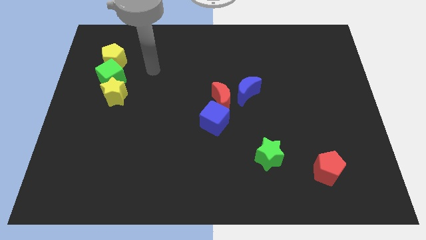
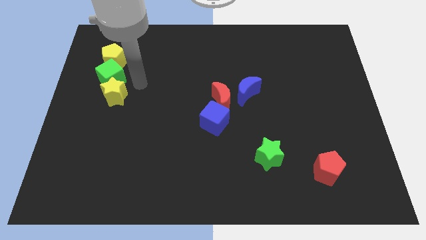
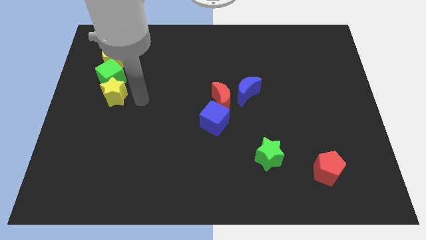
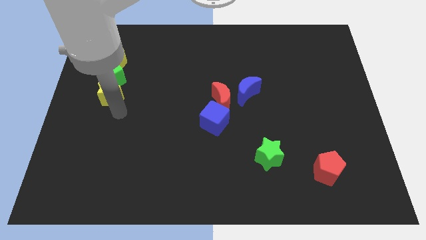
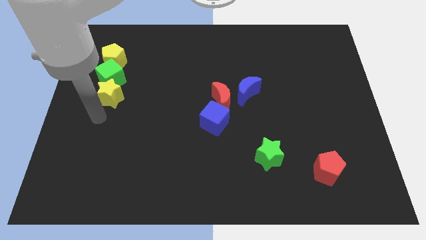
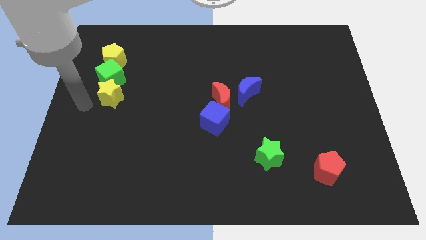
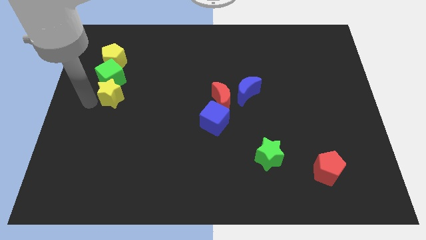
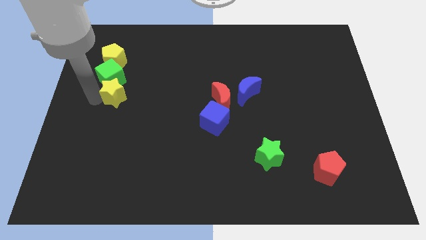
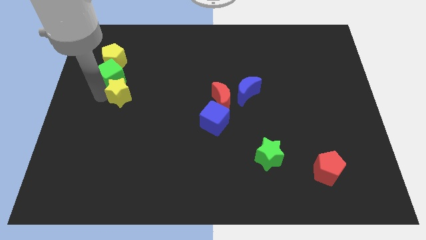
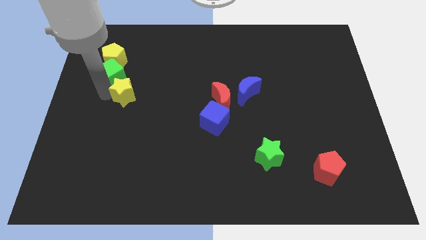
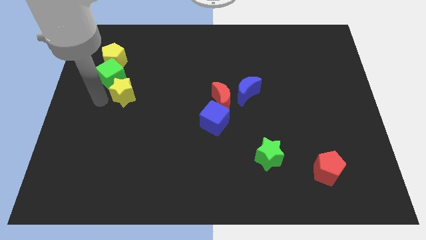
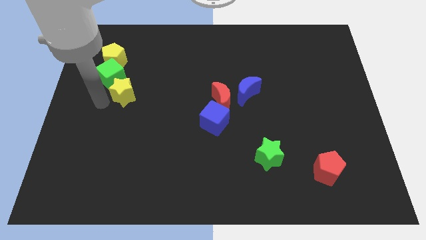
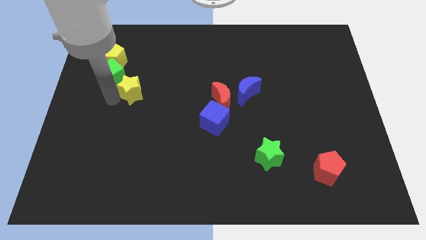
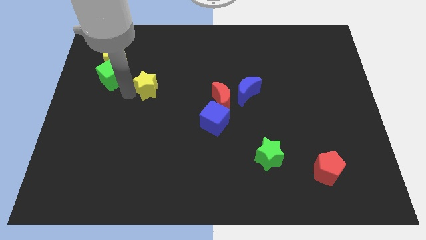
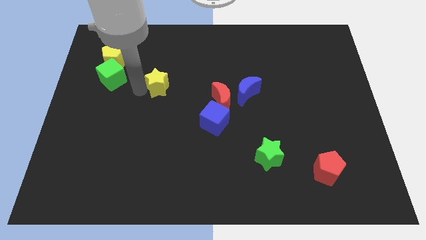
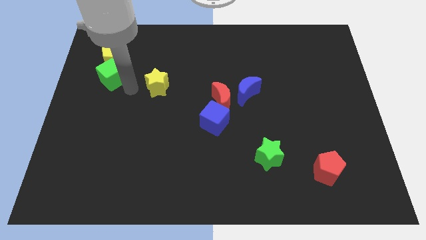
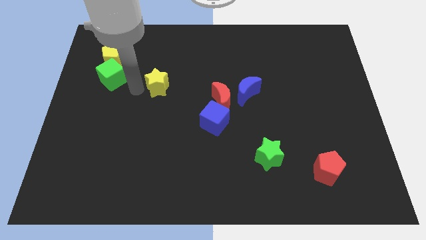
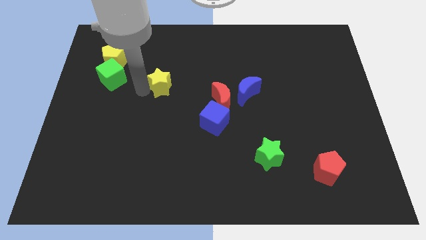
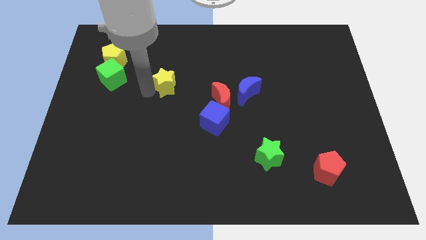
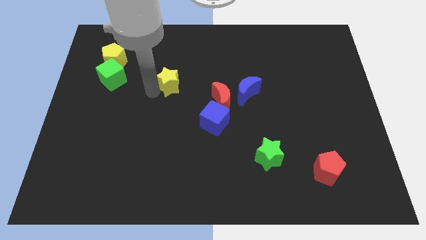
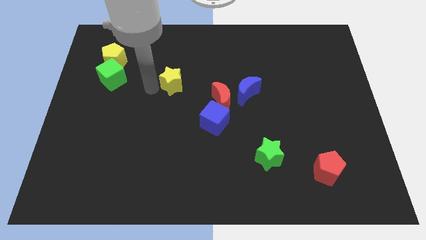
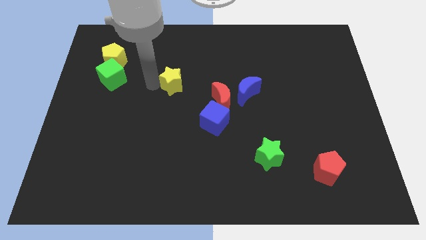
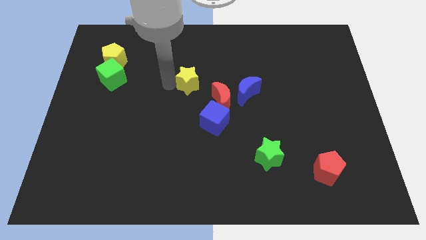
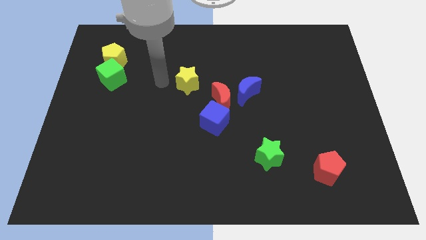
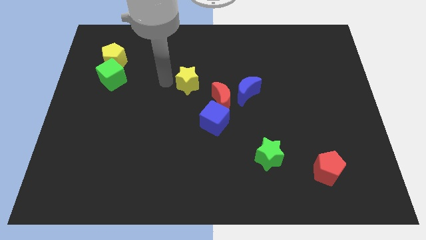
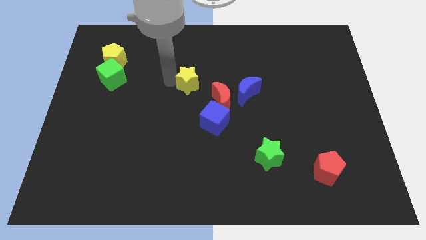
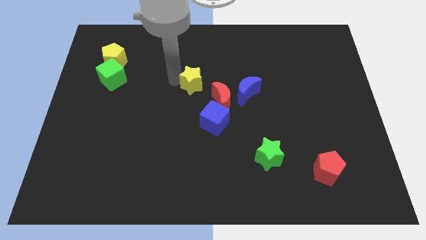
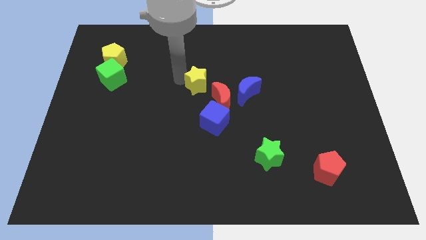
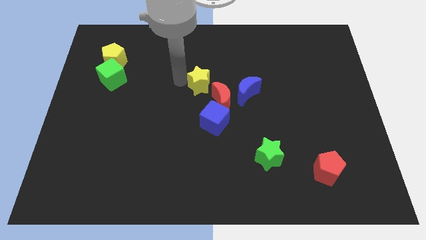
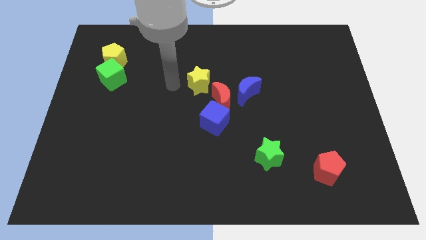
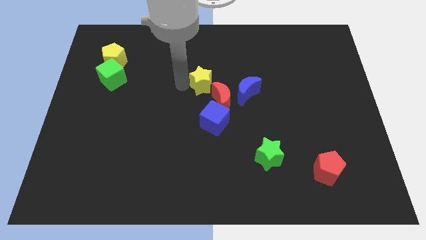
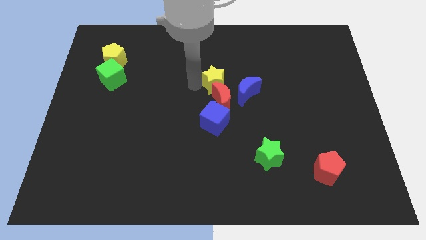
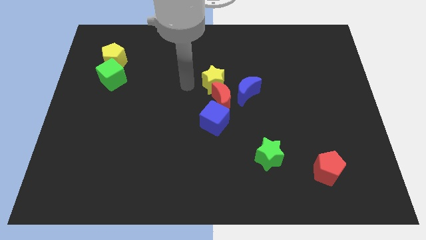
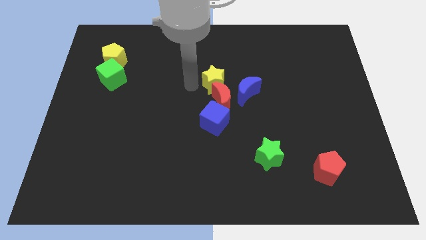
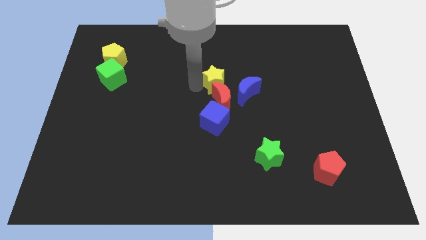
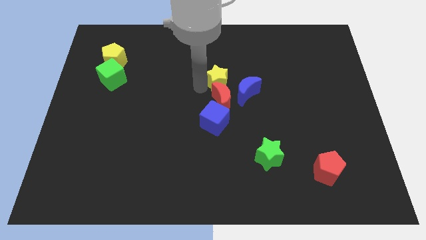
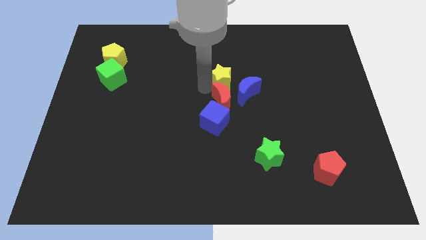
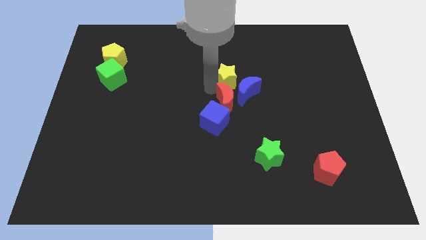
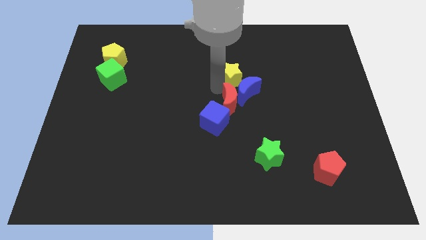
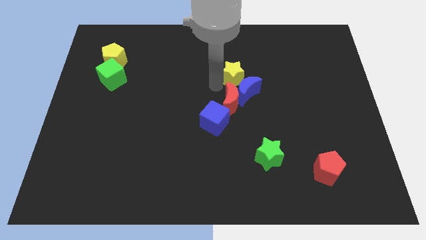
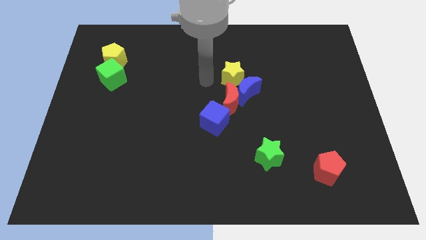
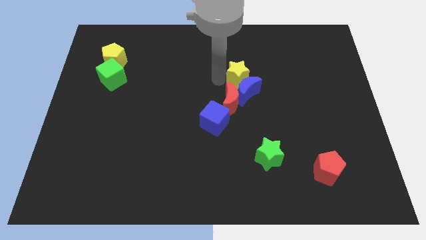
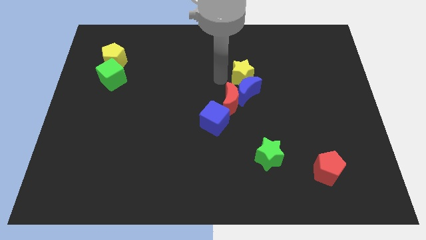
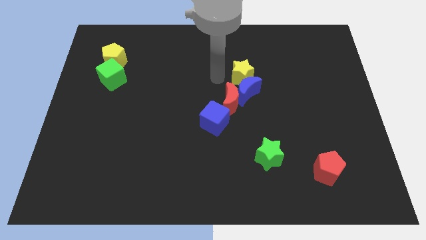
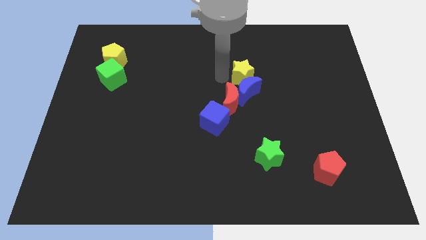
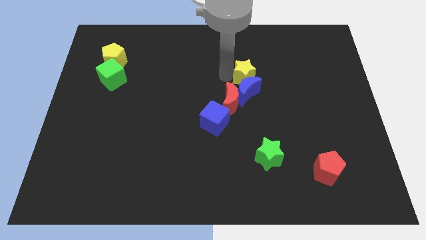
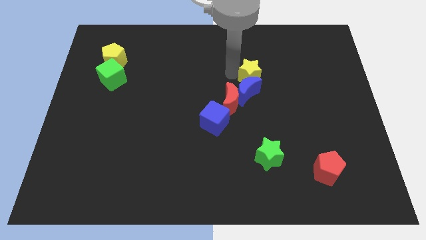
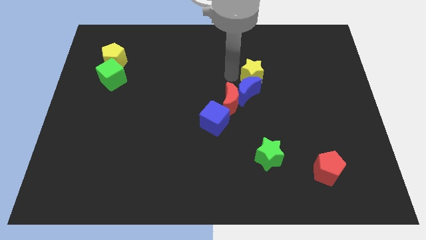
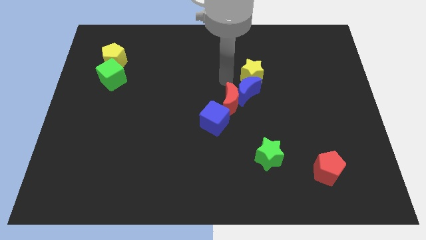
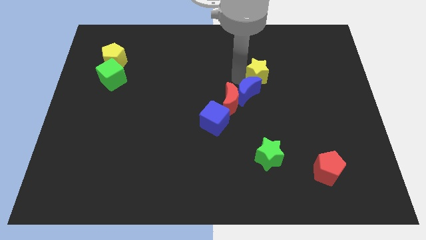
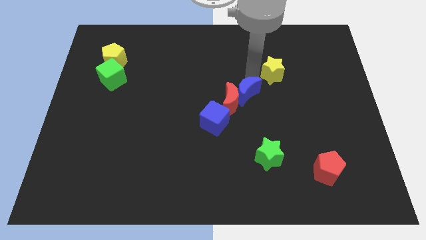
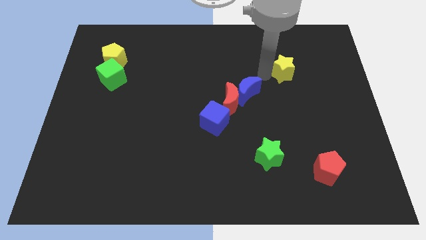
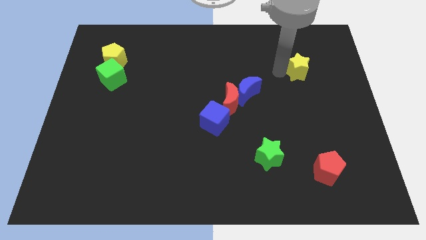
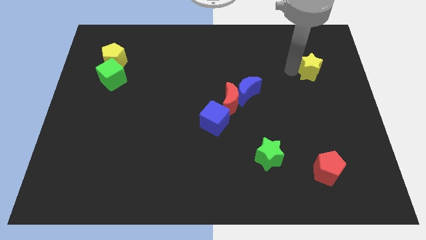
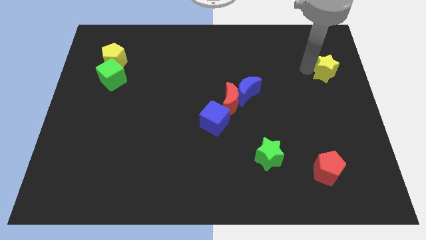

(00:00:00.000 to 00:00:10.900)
put the yellow star to the right side
